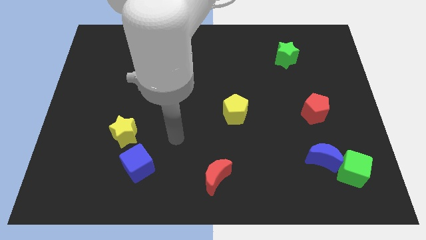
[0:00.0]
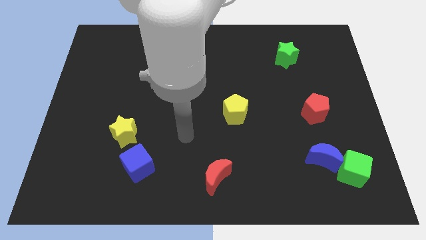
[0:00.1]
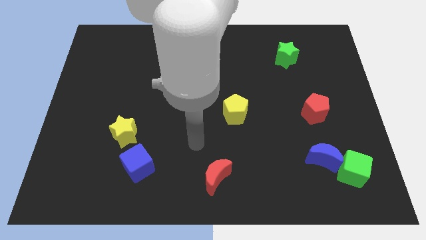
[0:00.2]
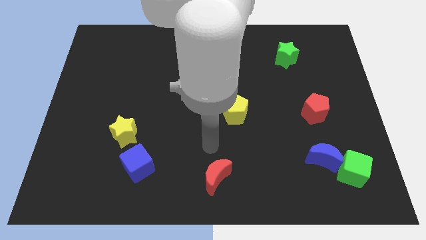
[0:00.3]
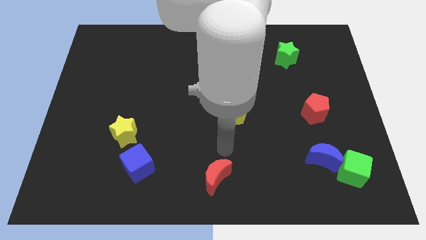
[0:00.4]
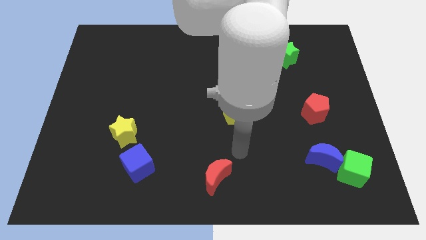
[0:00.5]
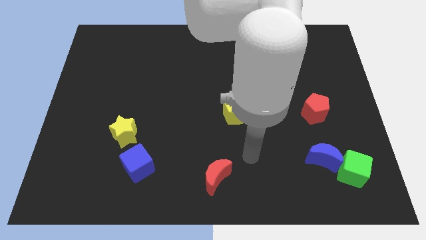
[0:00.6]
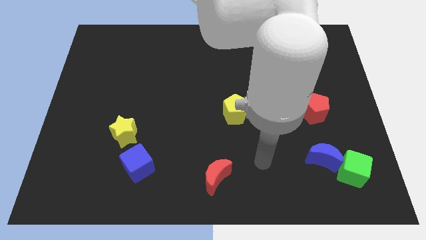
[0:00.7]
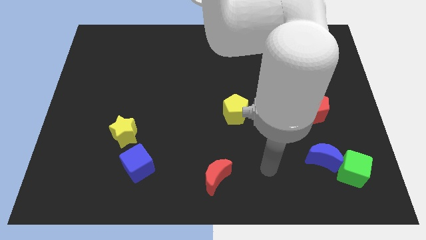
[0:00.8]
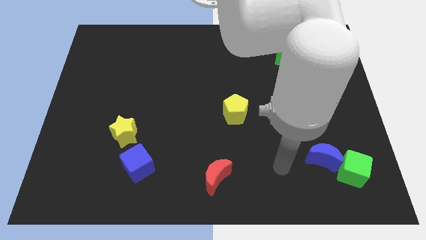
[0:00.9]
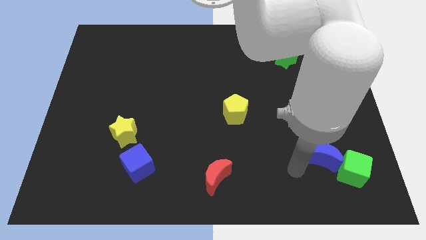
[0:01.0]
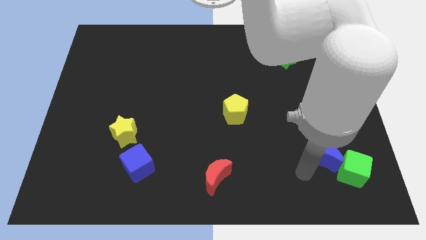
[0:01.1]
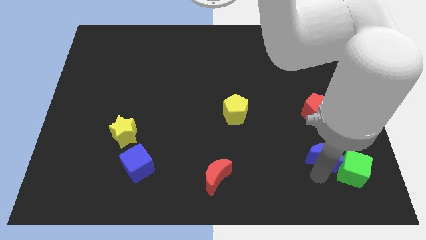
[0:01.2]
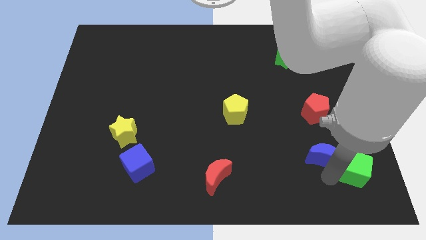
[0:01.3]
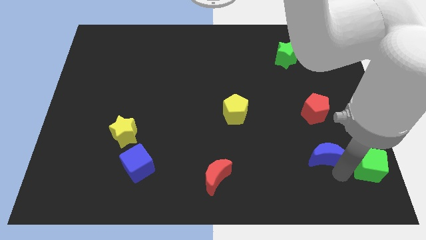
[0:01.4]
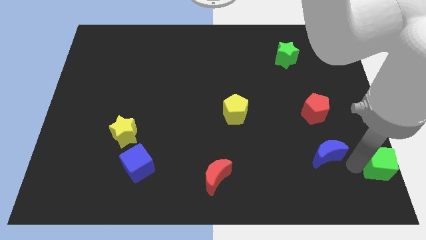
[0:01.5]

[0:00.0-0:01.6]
move the blue moon away from the green cube

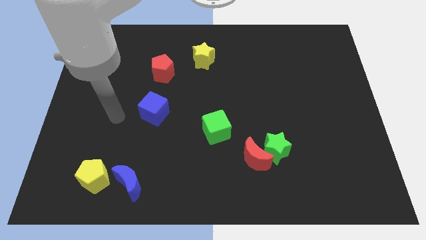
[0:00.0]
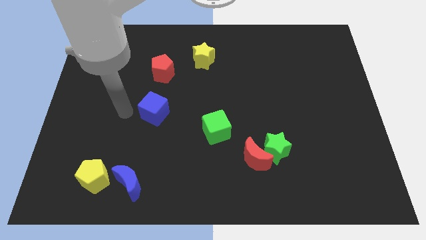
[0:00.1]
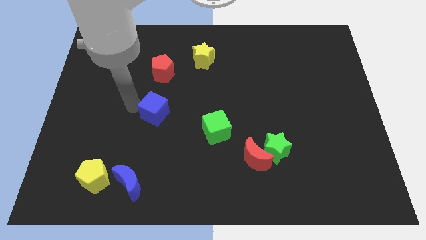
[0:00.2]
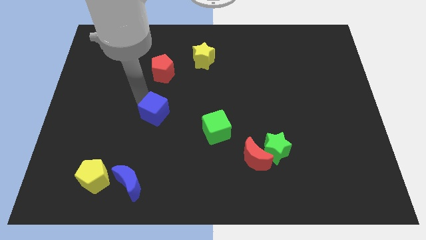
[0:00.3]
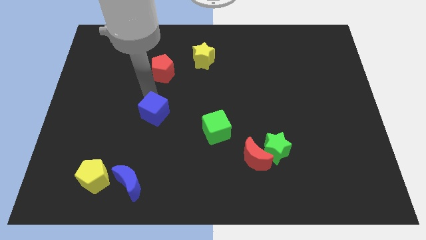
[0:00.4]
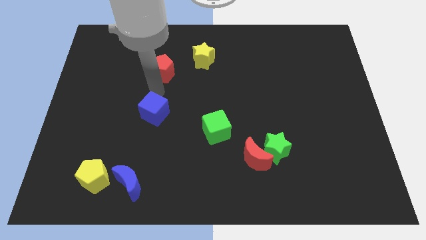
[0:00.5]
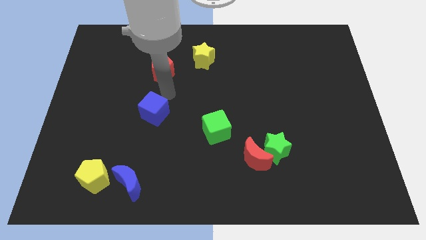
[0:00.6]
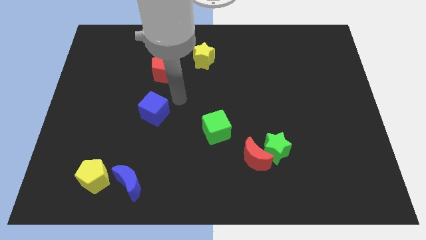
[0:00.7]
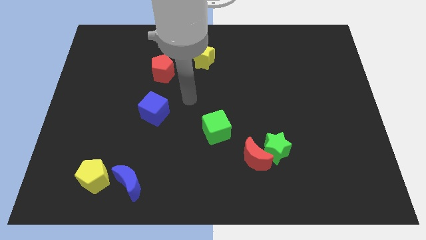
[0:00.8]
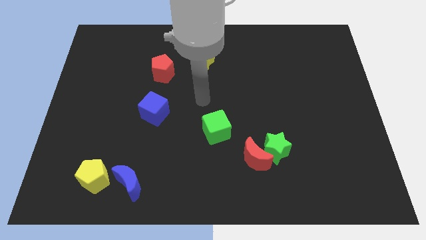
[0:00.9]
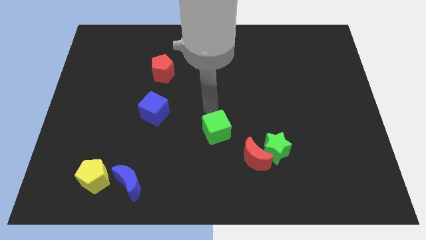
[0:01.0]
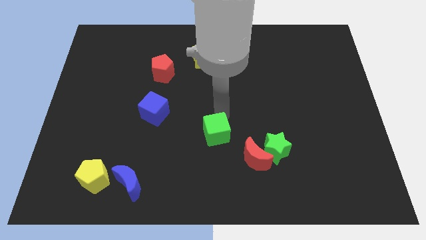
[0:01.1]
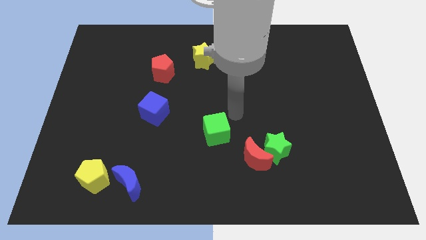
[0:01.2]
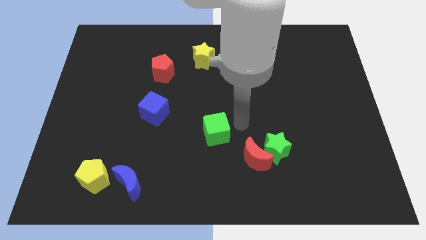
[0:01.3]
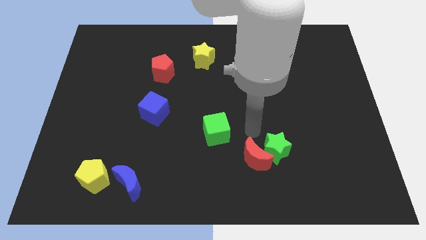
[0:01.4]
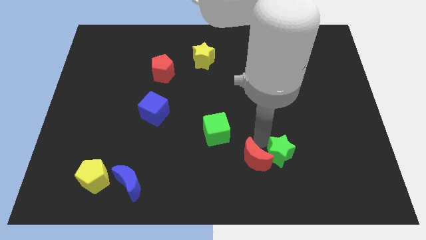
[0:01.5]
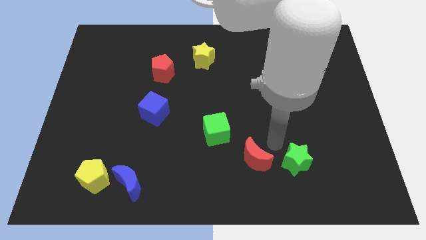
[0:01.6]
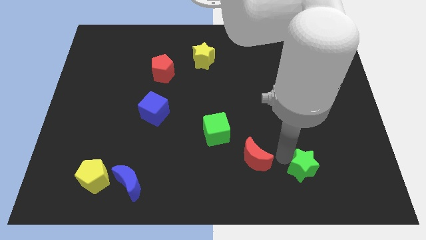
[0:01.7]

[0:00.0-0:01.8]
move the red moon away from the green star

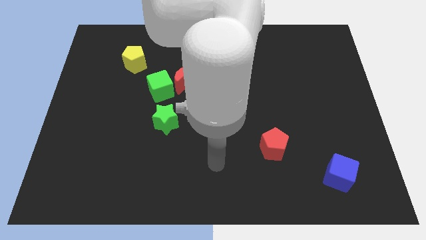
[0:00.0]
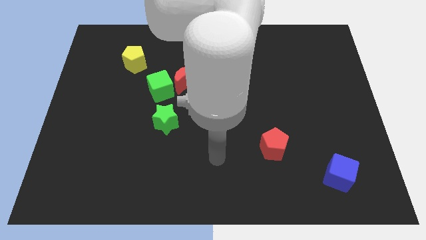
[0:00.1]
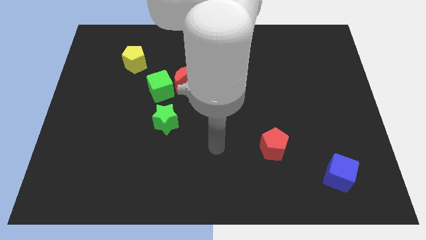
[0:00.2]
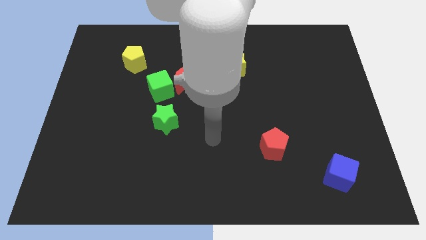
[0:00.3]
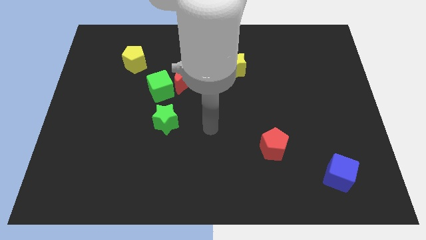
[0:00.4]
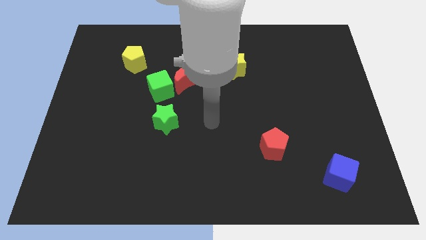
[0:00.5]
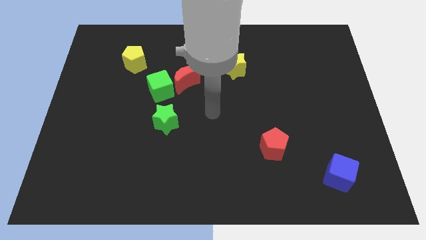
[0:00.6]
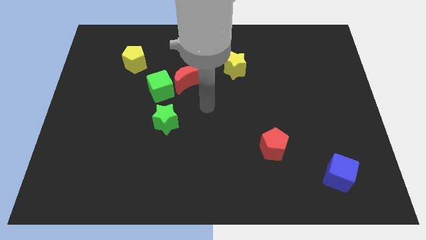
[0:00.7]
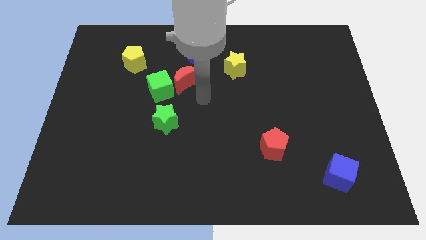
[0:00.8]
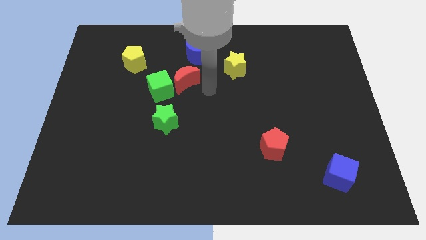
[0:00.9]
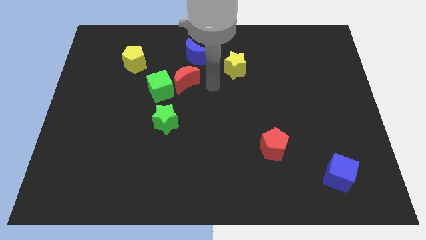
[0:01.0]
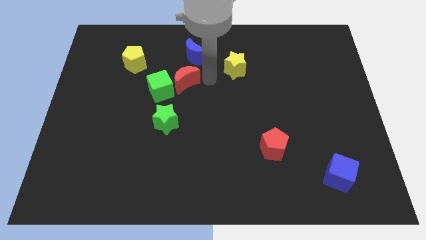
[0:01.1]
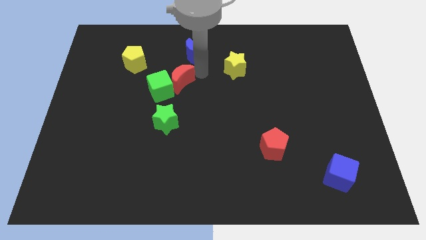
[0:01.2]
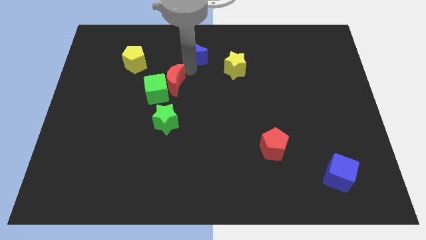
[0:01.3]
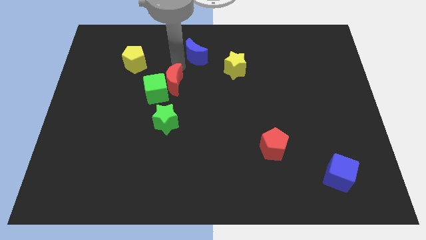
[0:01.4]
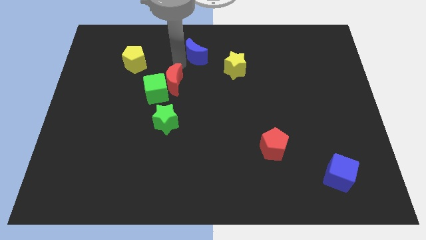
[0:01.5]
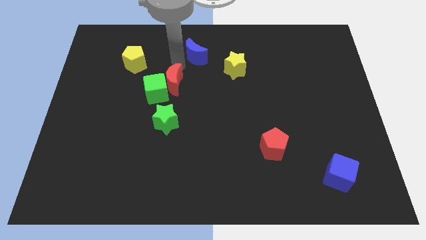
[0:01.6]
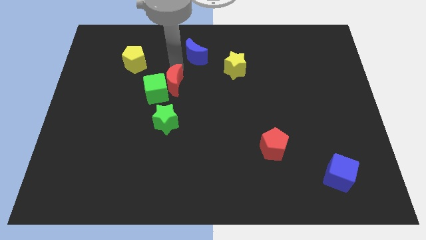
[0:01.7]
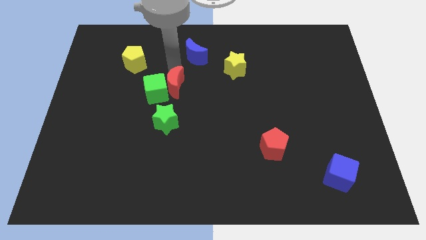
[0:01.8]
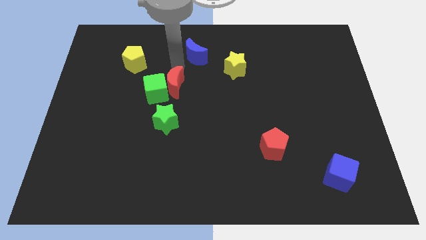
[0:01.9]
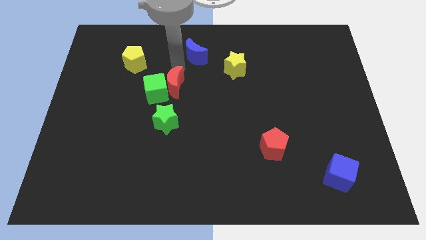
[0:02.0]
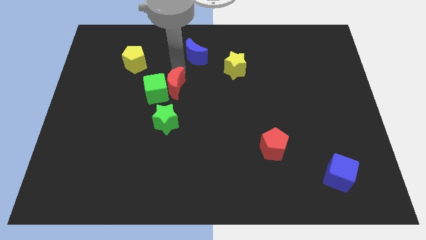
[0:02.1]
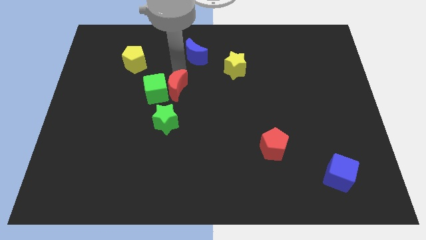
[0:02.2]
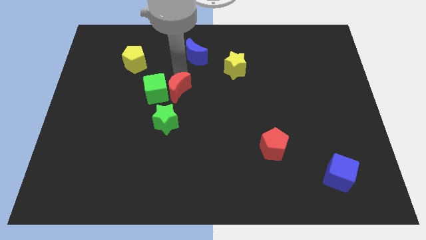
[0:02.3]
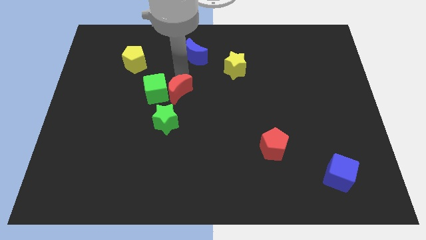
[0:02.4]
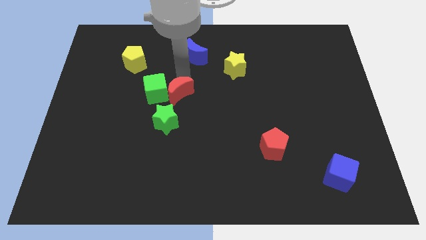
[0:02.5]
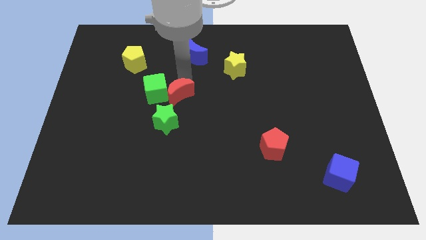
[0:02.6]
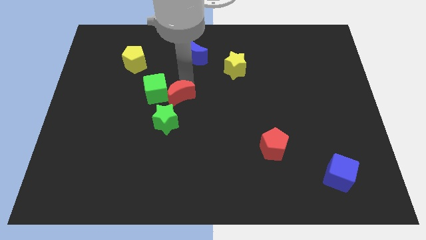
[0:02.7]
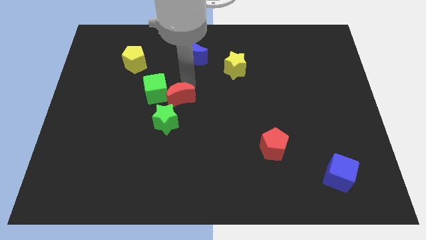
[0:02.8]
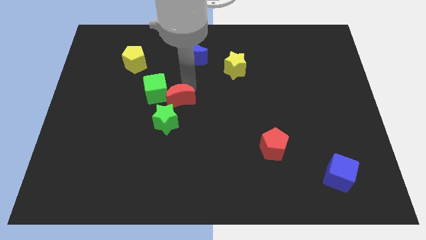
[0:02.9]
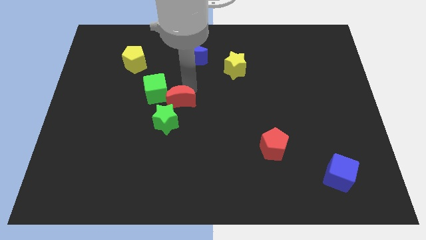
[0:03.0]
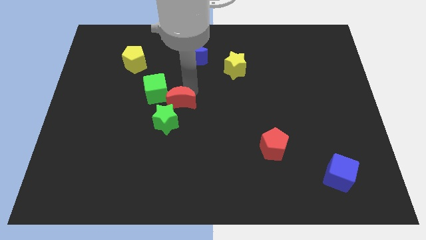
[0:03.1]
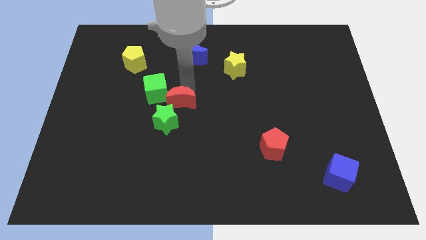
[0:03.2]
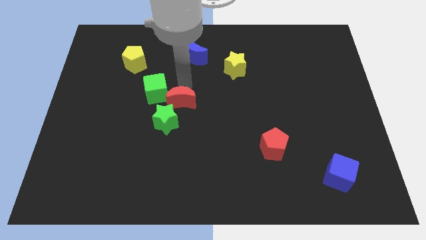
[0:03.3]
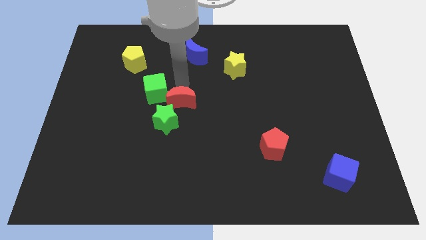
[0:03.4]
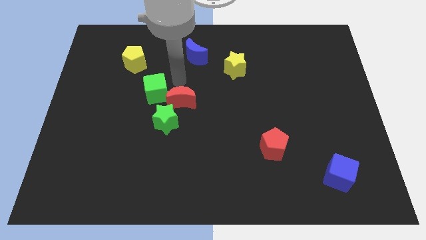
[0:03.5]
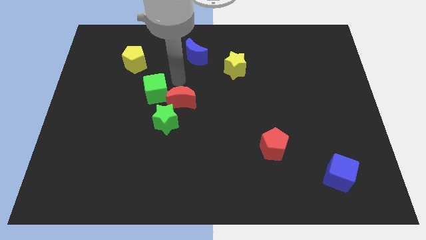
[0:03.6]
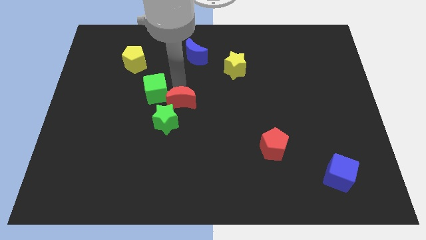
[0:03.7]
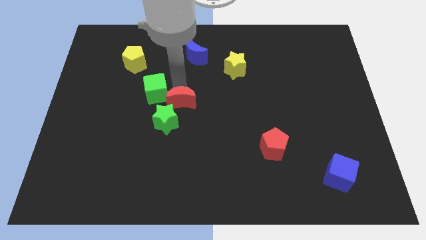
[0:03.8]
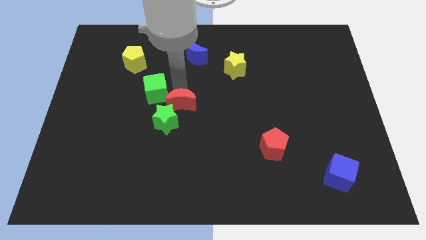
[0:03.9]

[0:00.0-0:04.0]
pull the red moon apart from the green cube and blue moon

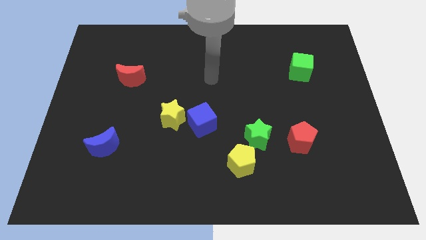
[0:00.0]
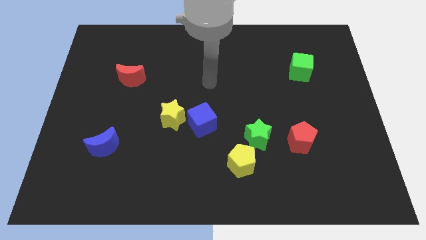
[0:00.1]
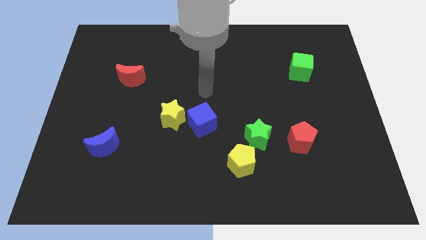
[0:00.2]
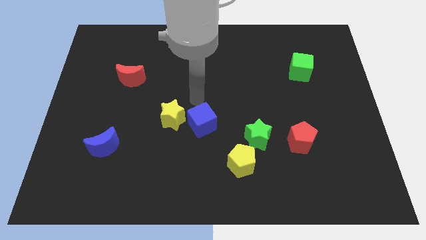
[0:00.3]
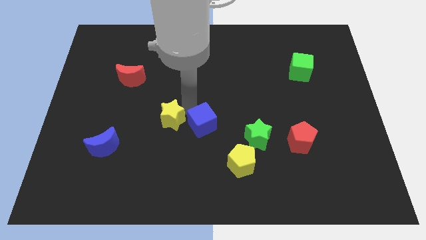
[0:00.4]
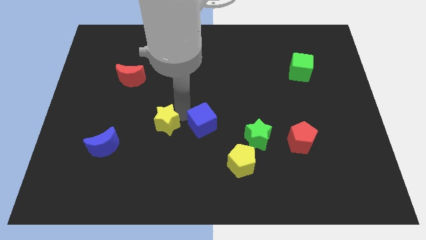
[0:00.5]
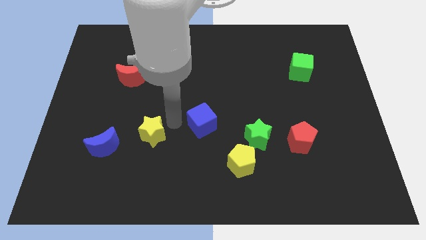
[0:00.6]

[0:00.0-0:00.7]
separate the blue cube from the yellow star

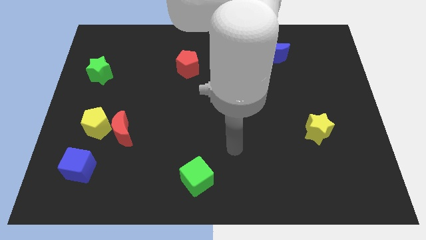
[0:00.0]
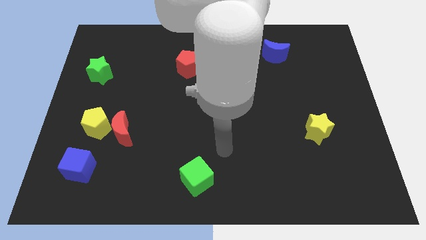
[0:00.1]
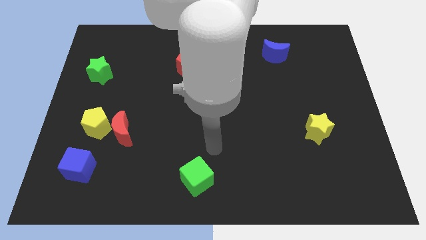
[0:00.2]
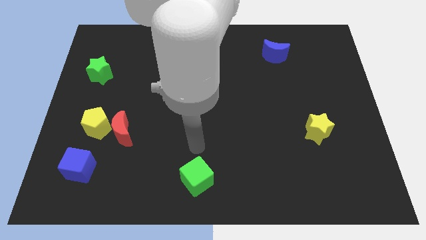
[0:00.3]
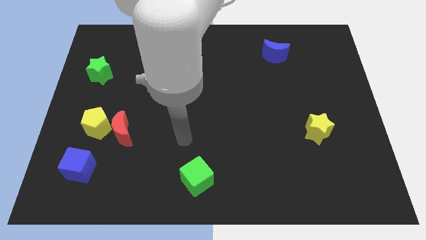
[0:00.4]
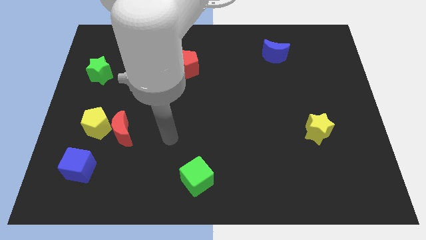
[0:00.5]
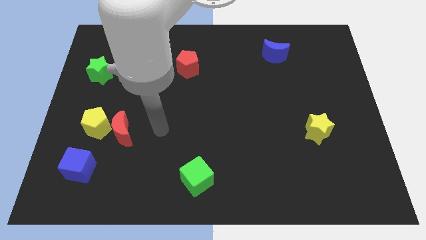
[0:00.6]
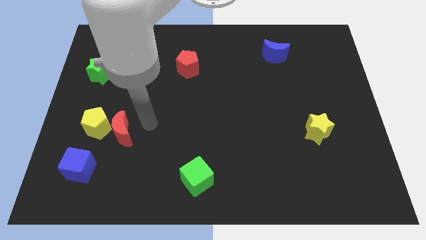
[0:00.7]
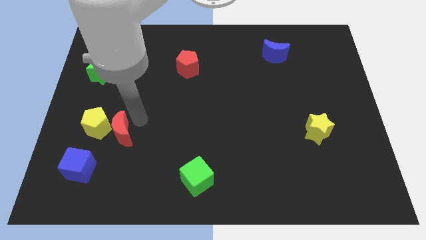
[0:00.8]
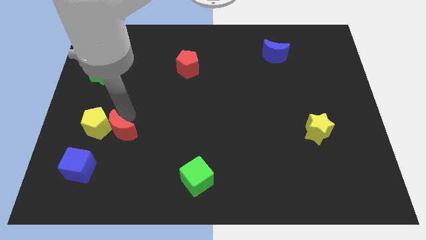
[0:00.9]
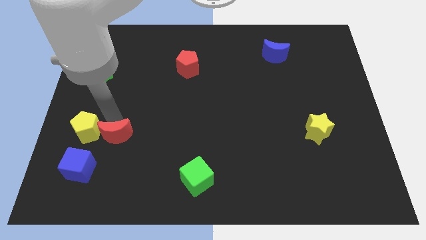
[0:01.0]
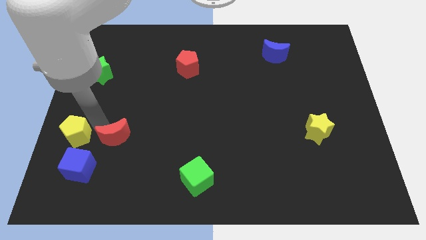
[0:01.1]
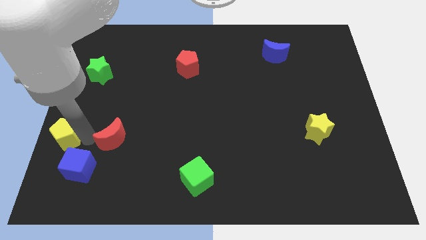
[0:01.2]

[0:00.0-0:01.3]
move the red moon away from the yellow pentagon
